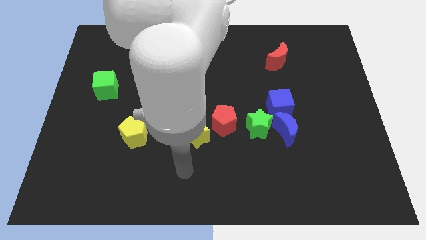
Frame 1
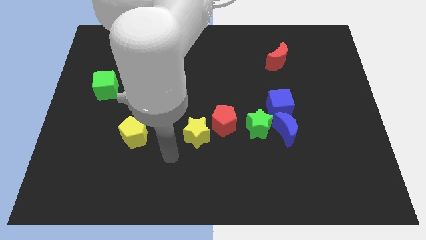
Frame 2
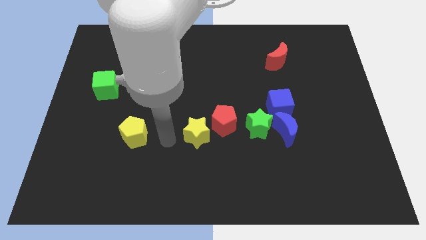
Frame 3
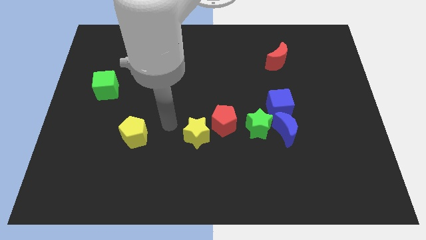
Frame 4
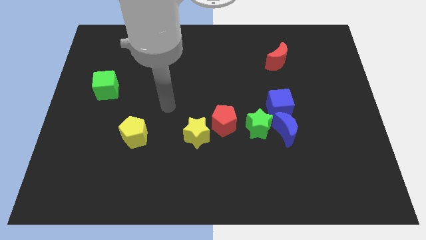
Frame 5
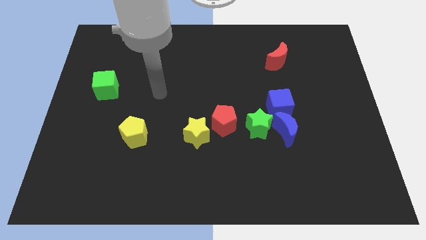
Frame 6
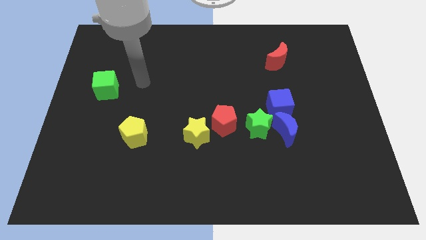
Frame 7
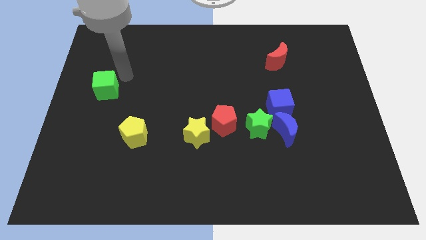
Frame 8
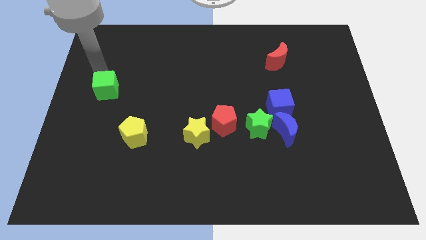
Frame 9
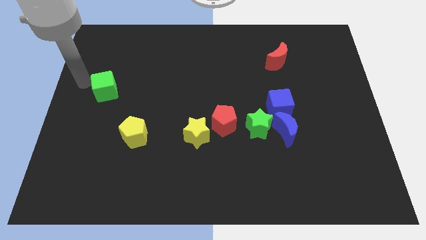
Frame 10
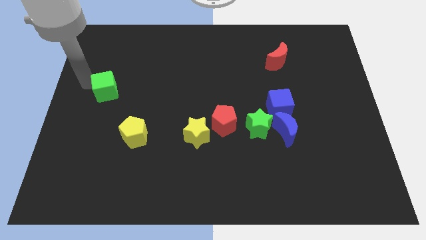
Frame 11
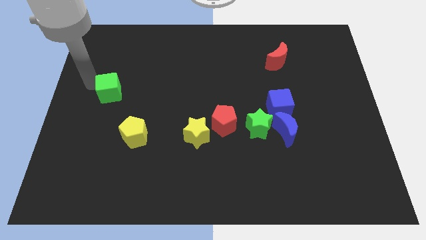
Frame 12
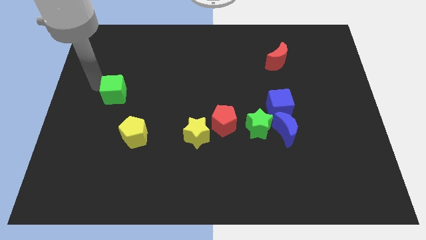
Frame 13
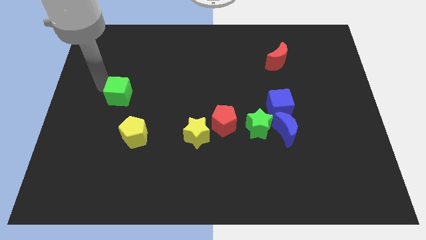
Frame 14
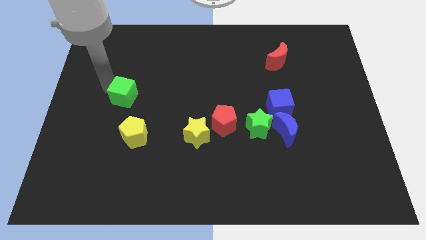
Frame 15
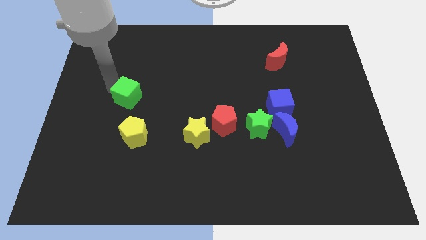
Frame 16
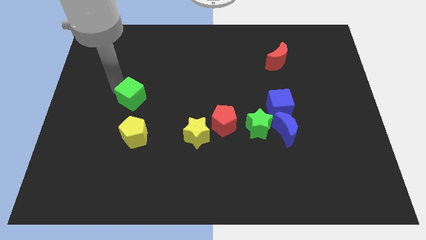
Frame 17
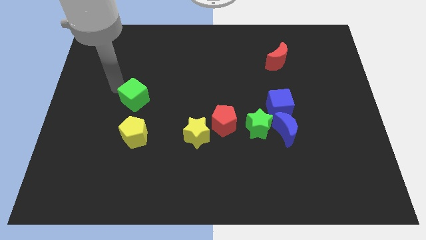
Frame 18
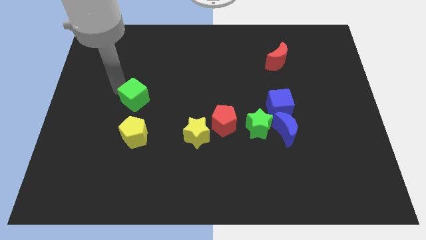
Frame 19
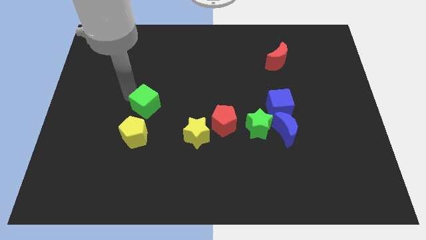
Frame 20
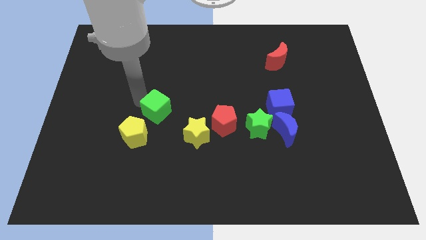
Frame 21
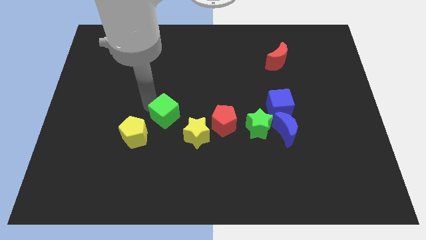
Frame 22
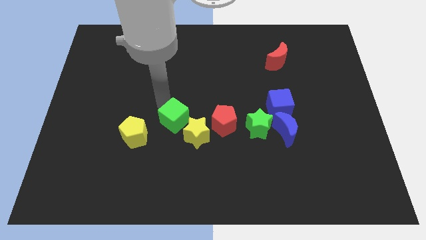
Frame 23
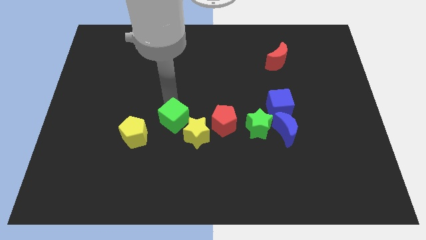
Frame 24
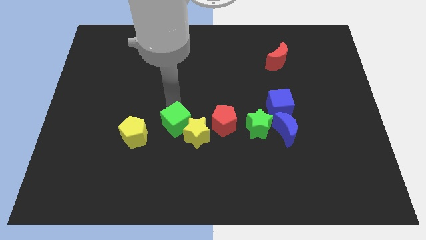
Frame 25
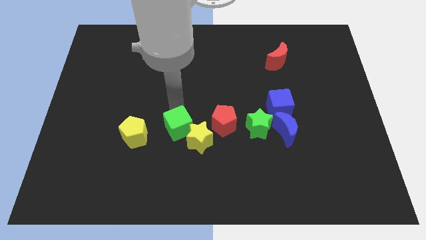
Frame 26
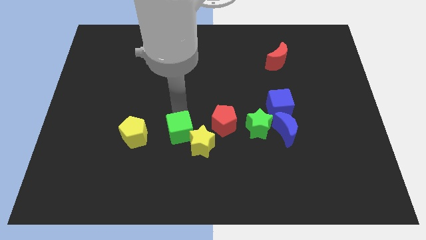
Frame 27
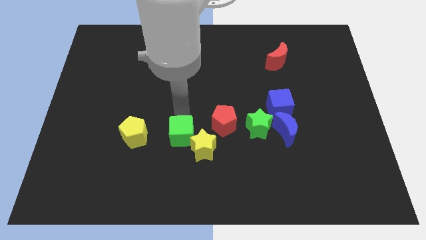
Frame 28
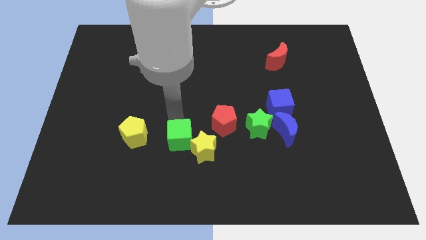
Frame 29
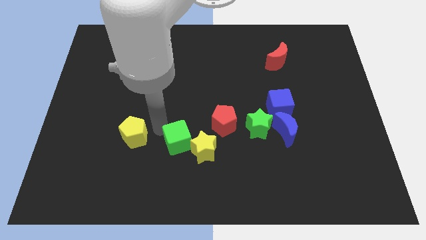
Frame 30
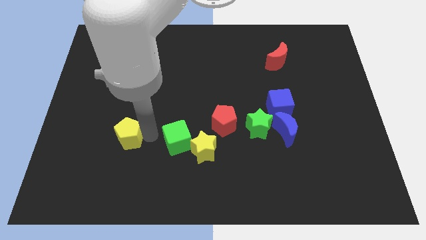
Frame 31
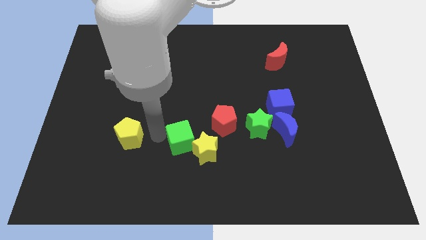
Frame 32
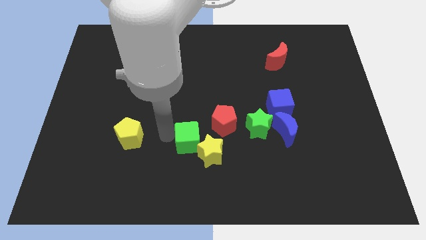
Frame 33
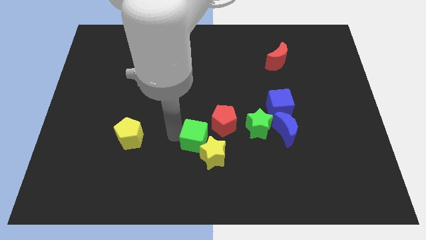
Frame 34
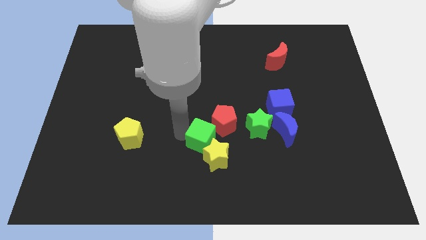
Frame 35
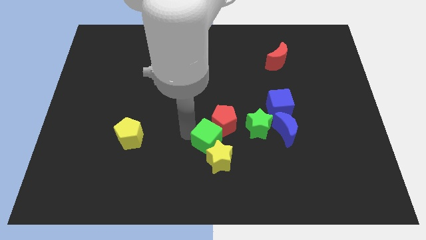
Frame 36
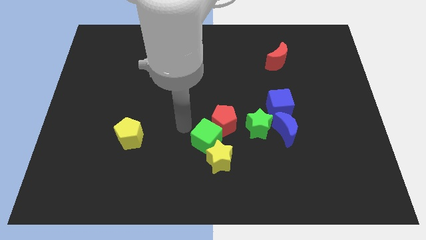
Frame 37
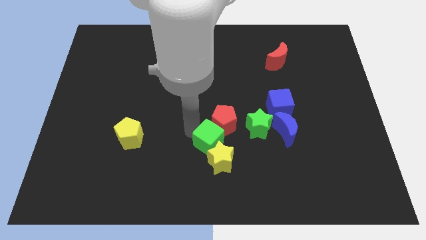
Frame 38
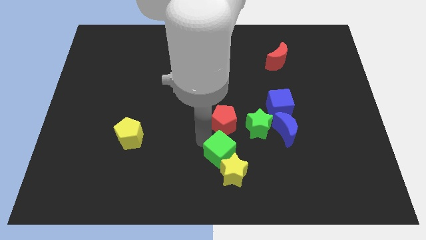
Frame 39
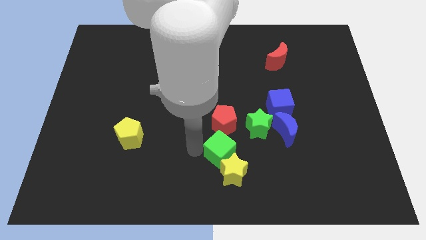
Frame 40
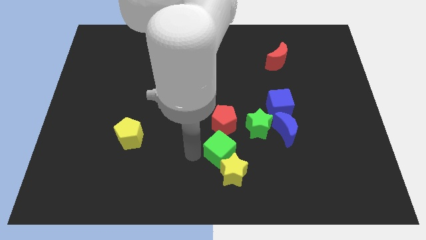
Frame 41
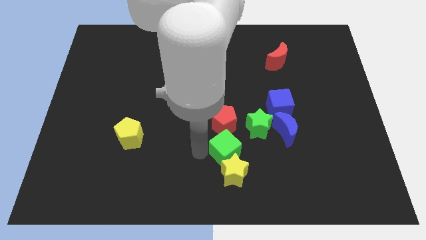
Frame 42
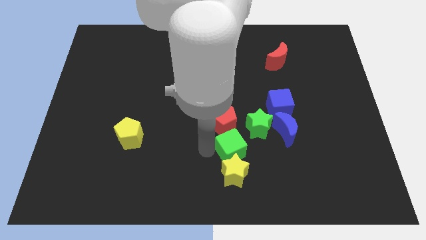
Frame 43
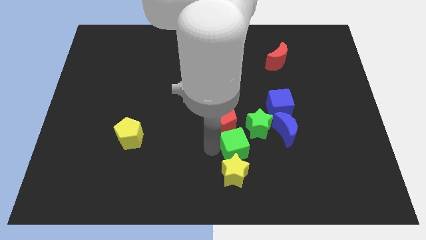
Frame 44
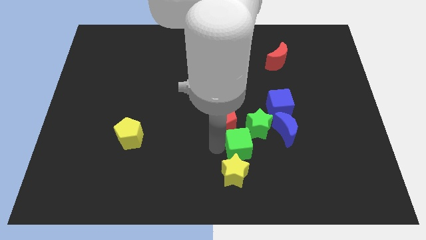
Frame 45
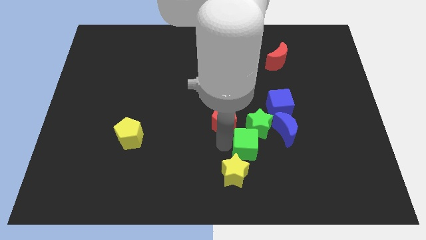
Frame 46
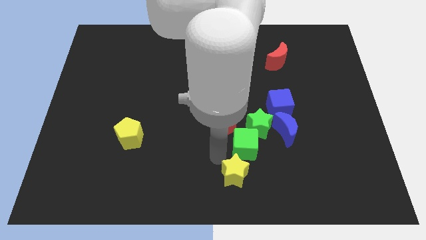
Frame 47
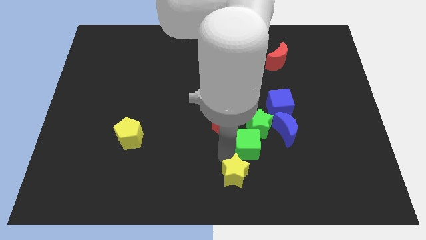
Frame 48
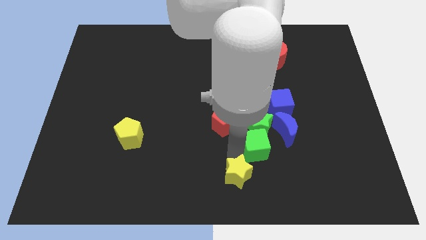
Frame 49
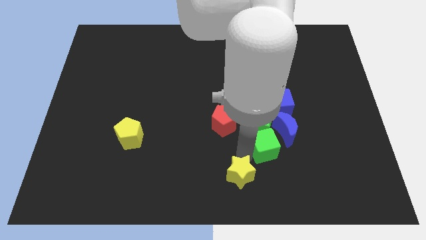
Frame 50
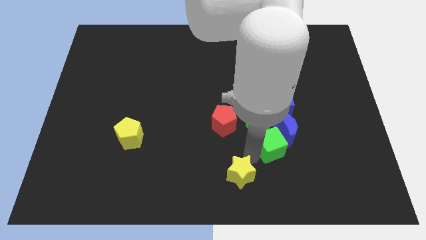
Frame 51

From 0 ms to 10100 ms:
push the green cube next to the blue moon
